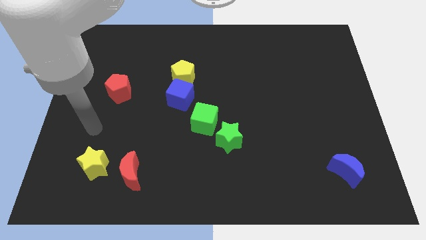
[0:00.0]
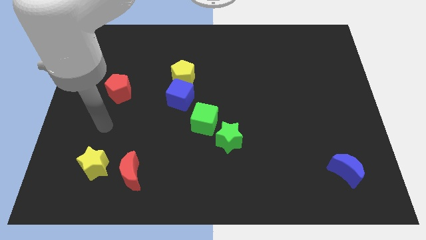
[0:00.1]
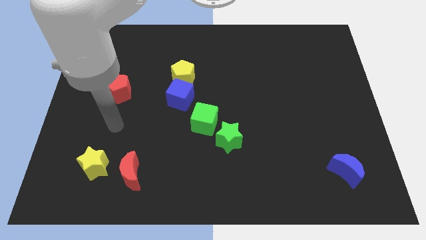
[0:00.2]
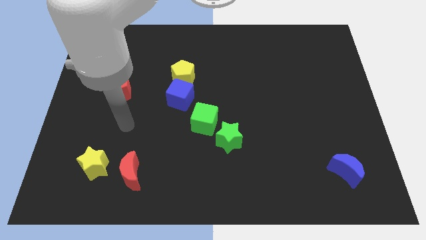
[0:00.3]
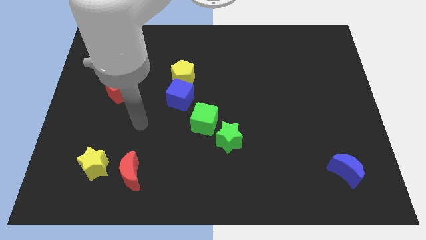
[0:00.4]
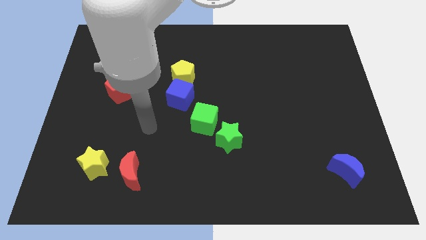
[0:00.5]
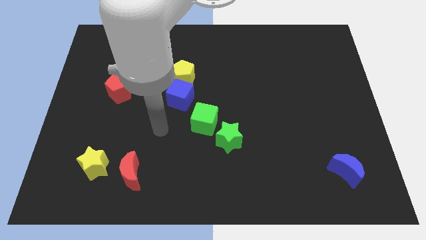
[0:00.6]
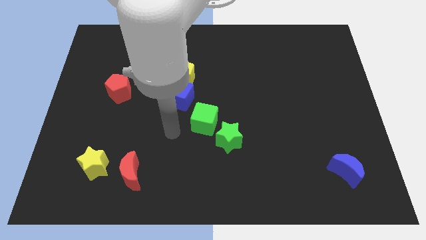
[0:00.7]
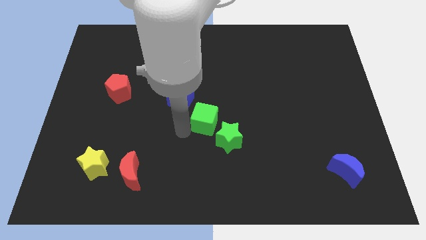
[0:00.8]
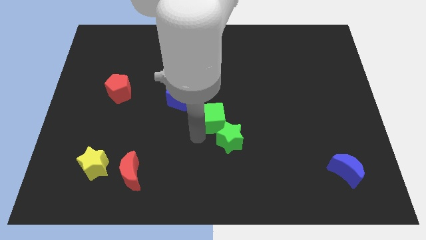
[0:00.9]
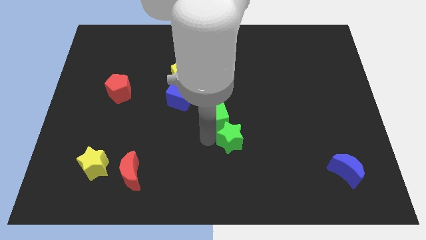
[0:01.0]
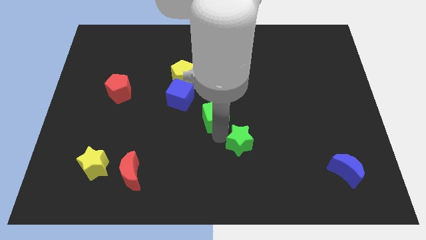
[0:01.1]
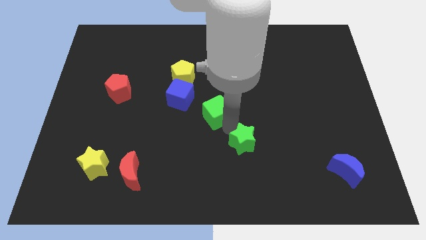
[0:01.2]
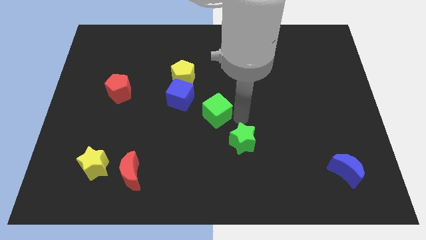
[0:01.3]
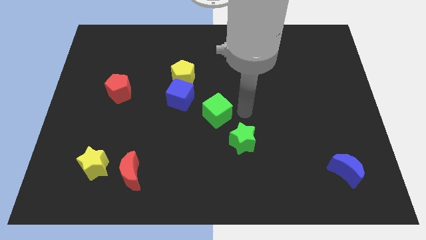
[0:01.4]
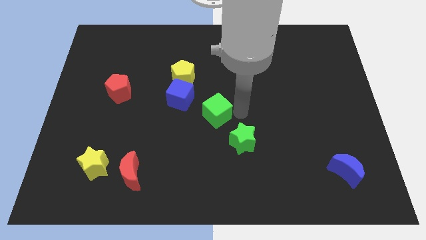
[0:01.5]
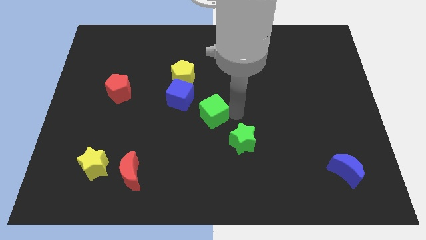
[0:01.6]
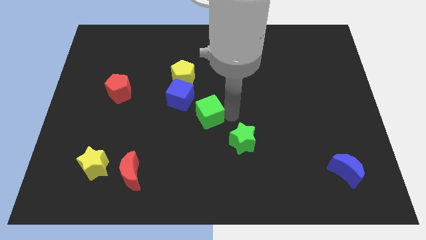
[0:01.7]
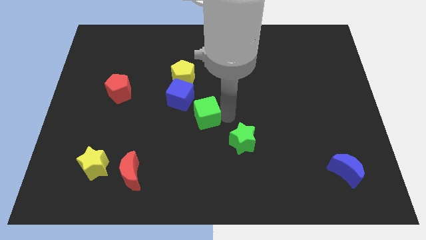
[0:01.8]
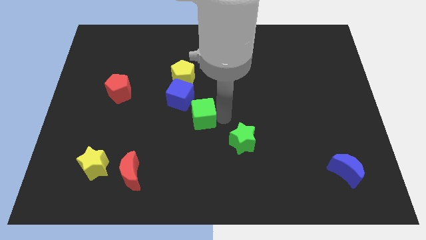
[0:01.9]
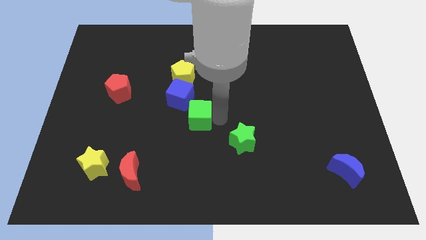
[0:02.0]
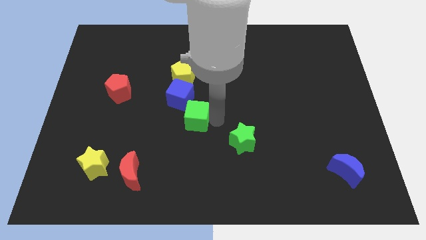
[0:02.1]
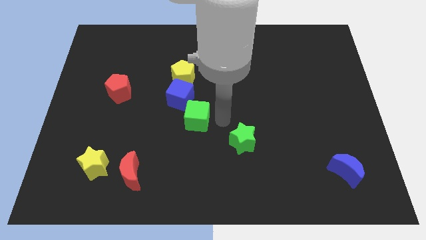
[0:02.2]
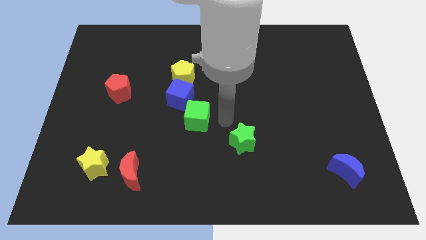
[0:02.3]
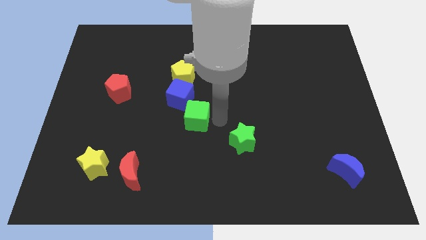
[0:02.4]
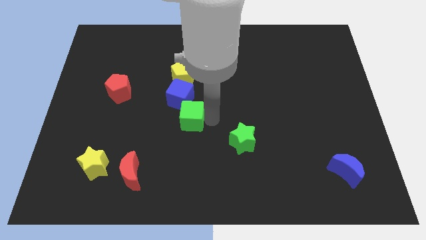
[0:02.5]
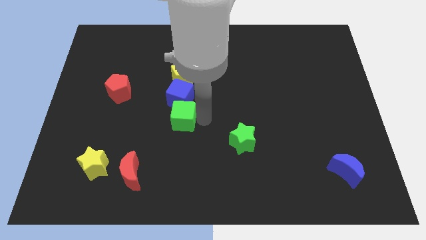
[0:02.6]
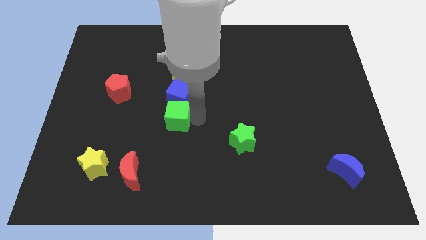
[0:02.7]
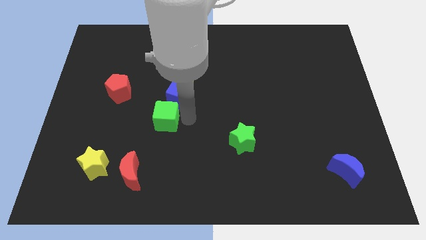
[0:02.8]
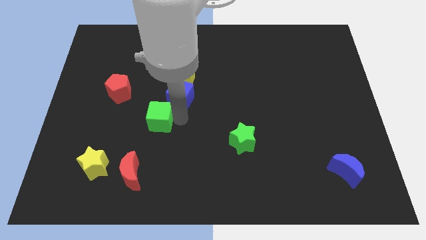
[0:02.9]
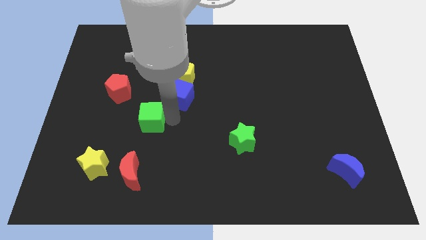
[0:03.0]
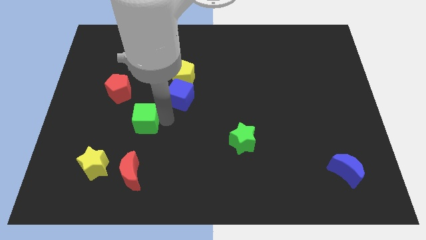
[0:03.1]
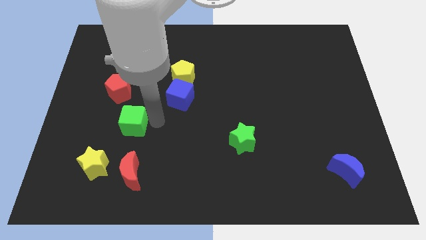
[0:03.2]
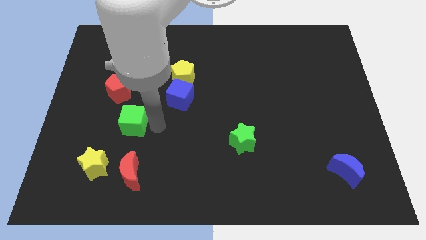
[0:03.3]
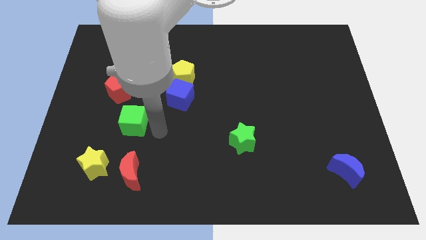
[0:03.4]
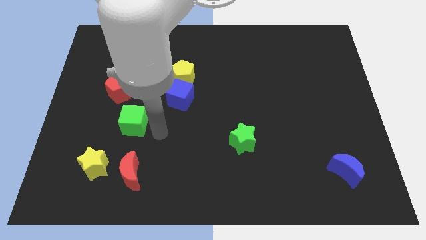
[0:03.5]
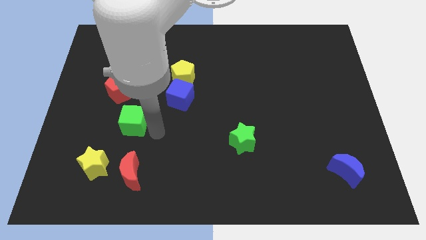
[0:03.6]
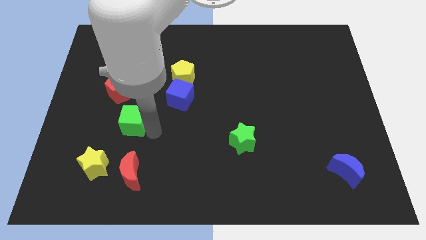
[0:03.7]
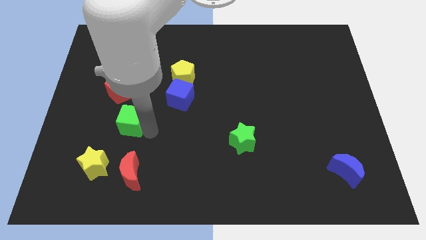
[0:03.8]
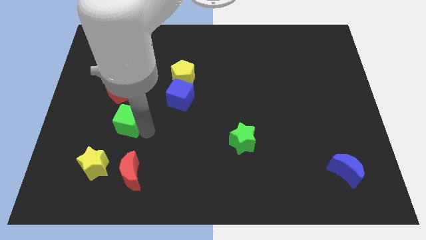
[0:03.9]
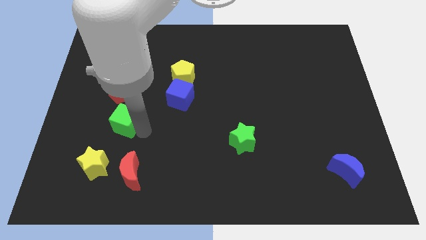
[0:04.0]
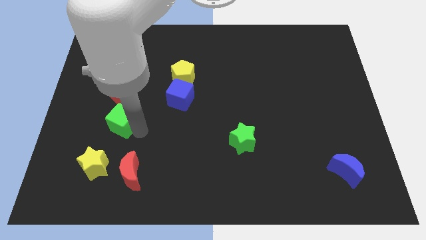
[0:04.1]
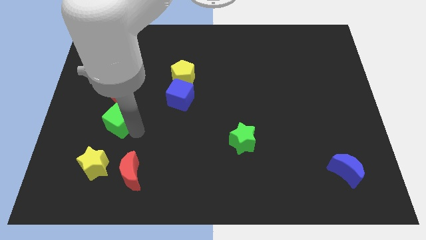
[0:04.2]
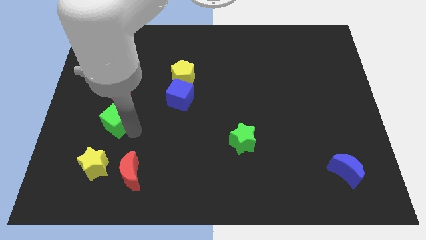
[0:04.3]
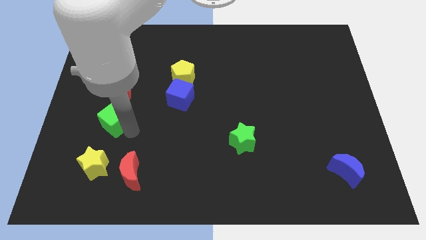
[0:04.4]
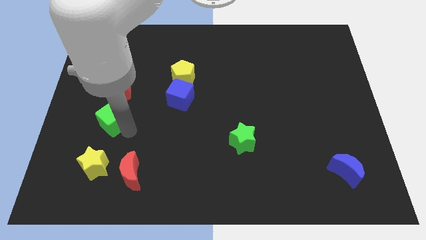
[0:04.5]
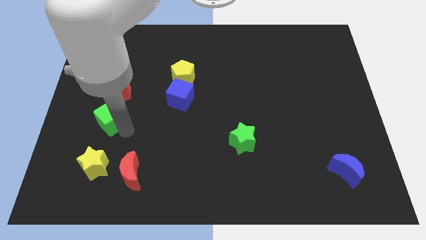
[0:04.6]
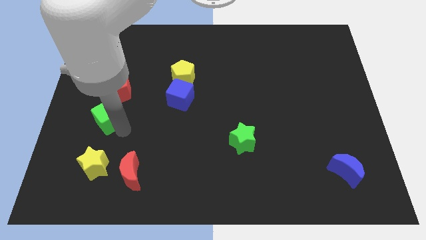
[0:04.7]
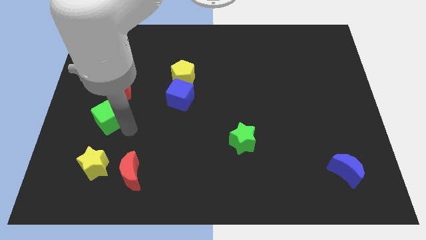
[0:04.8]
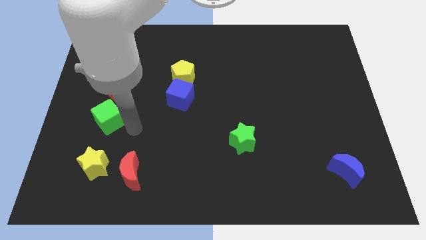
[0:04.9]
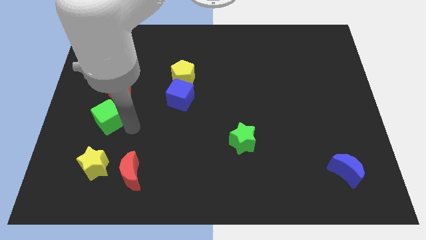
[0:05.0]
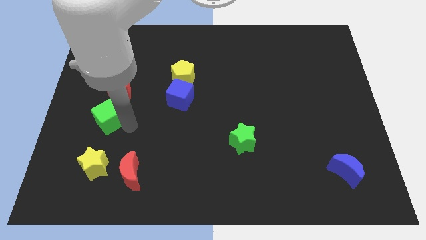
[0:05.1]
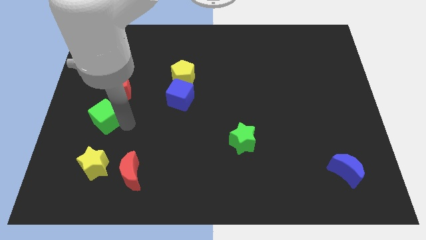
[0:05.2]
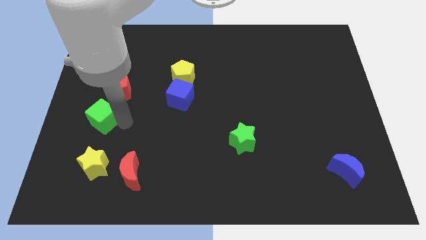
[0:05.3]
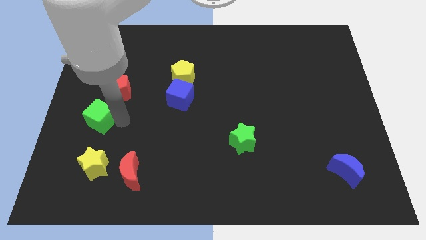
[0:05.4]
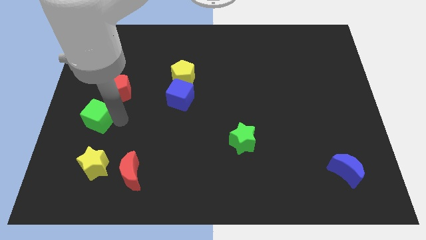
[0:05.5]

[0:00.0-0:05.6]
move the green cube to the left side

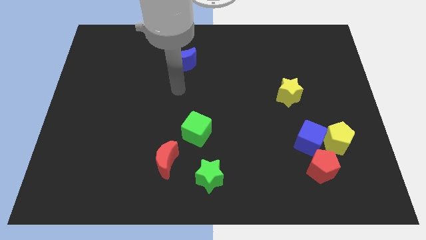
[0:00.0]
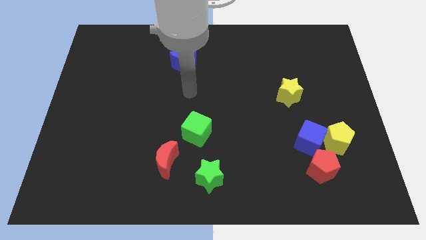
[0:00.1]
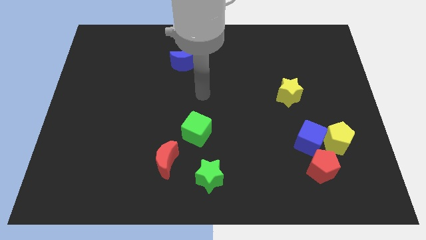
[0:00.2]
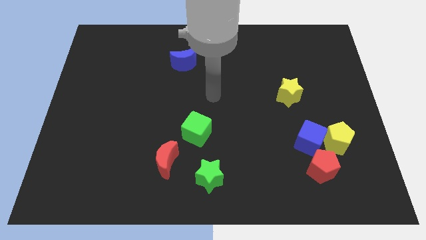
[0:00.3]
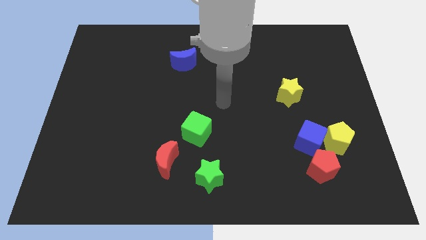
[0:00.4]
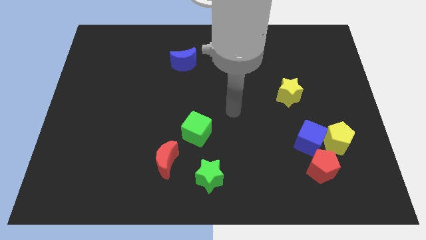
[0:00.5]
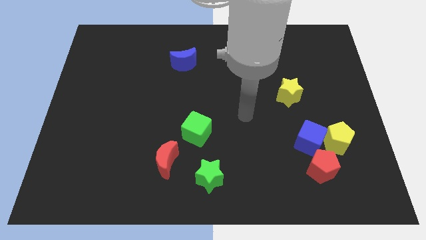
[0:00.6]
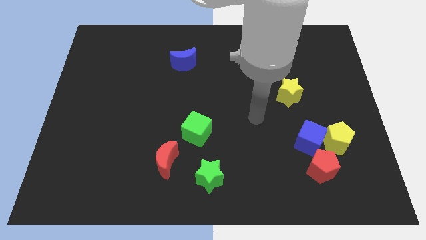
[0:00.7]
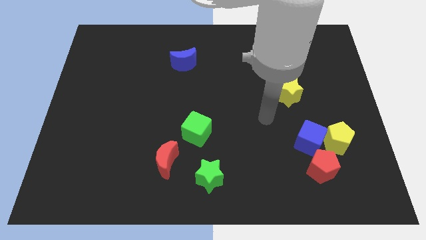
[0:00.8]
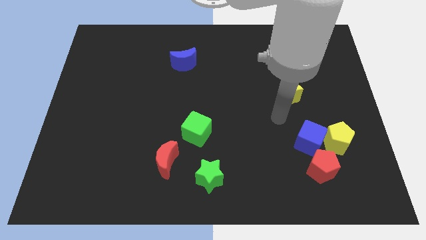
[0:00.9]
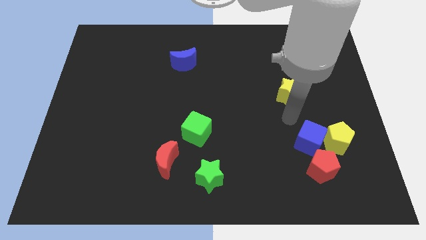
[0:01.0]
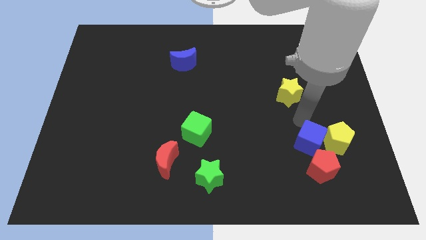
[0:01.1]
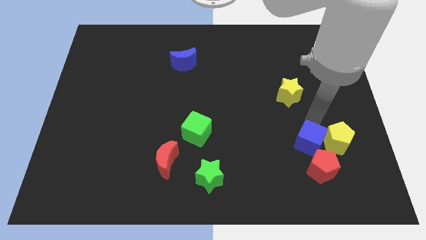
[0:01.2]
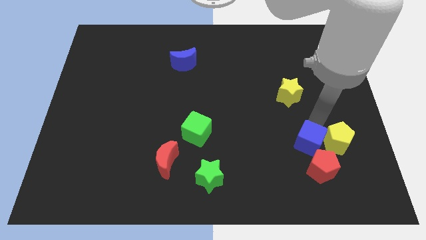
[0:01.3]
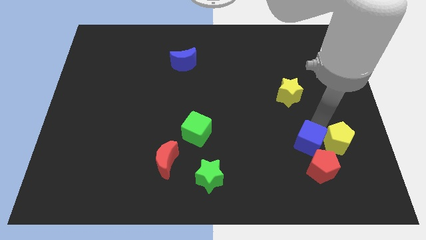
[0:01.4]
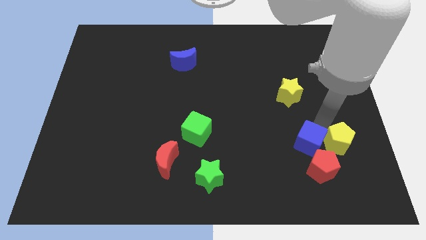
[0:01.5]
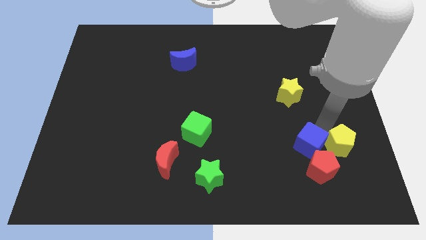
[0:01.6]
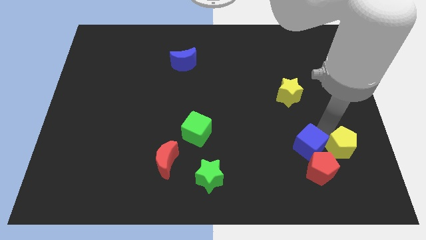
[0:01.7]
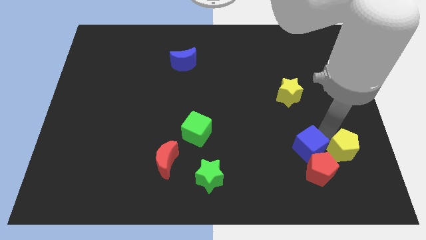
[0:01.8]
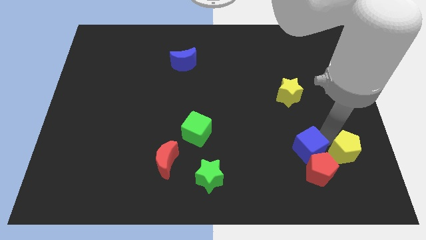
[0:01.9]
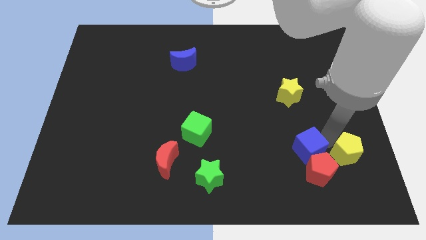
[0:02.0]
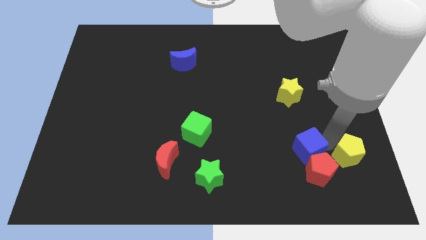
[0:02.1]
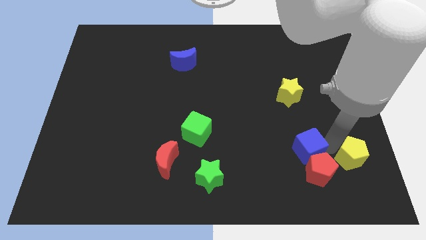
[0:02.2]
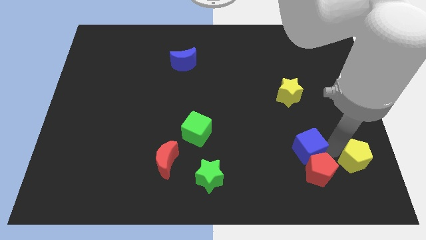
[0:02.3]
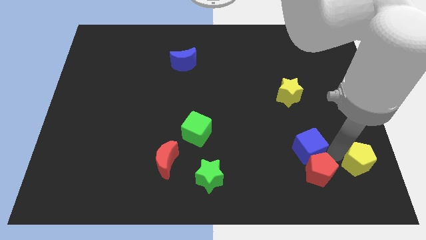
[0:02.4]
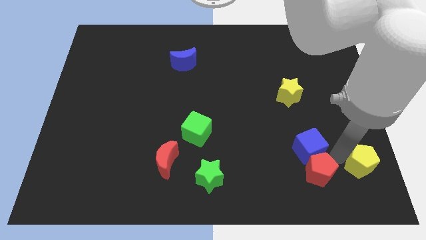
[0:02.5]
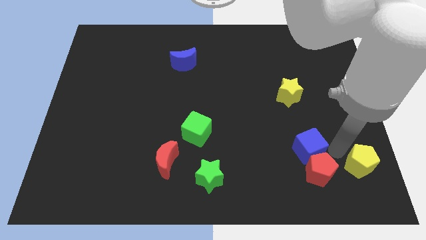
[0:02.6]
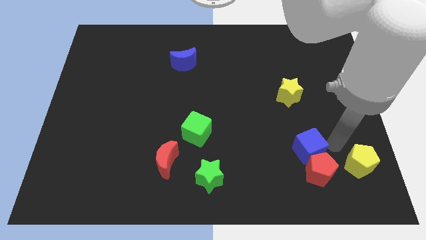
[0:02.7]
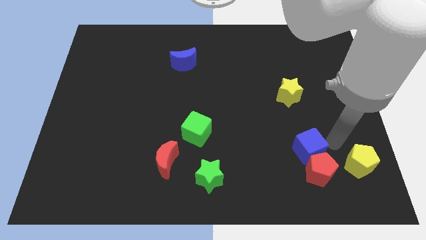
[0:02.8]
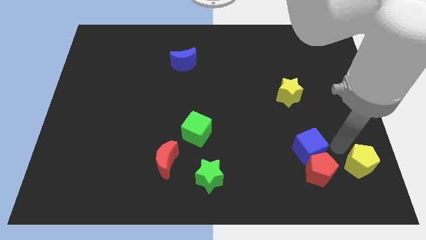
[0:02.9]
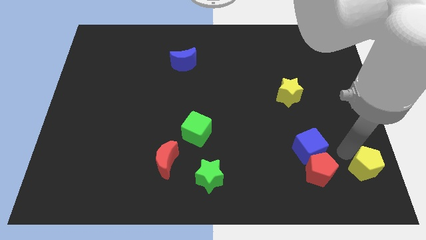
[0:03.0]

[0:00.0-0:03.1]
push the yellow pentagon to the bottom right corner
